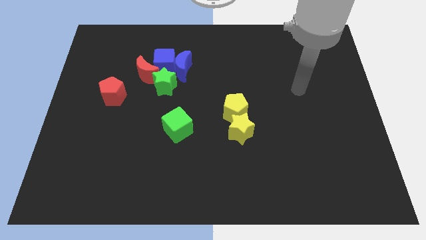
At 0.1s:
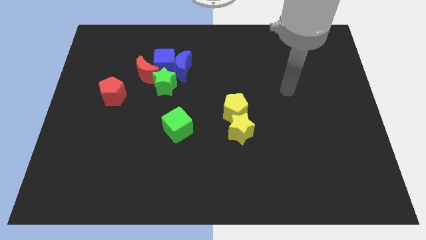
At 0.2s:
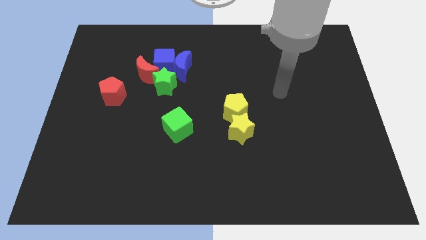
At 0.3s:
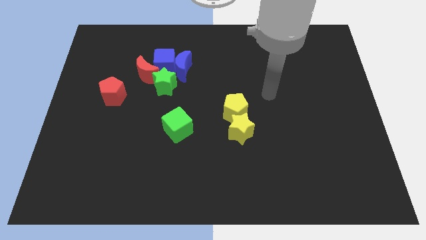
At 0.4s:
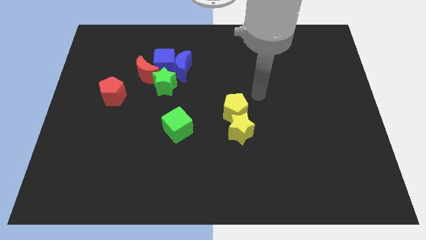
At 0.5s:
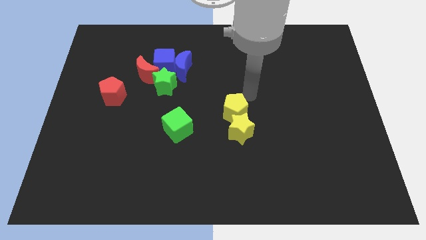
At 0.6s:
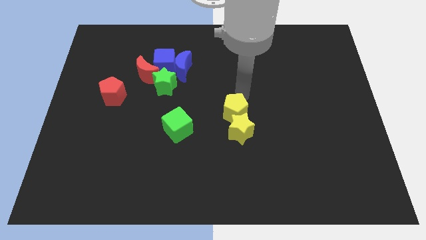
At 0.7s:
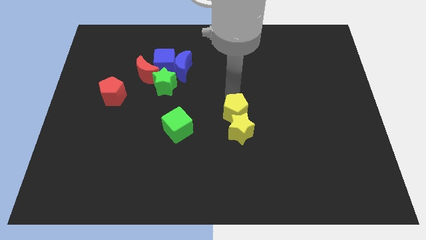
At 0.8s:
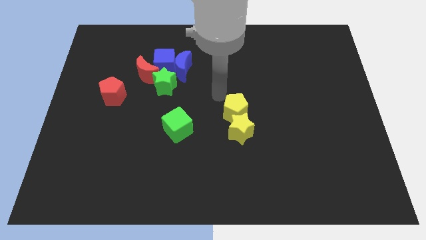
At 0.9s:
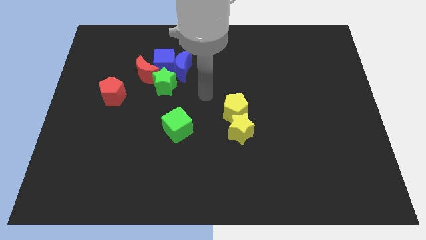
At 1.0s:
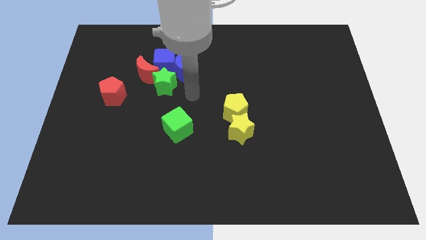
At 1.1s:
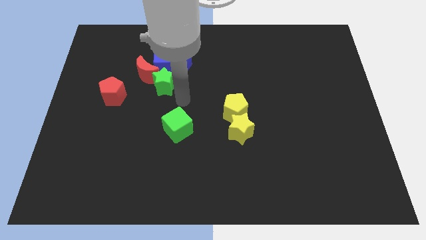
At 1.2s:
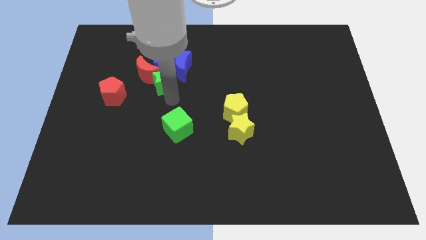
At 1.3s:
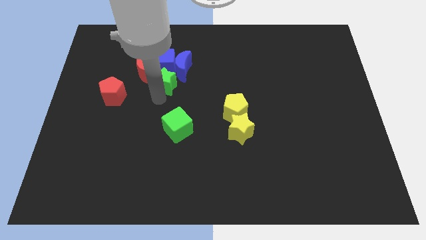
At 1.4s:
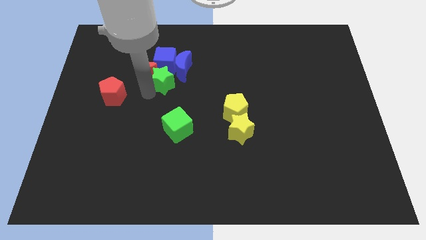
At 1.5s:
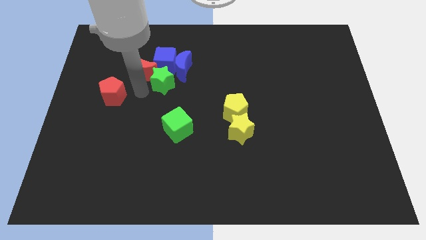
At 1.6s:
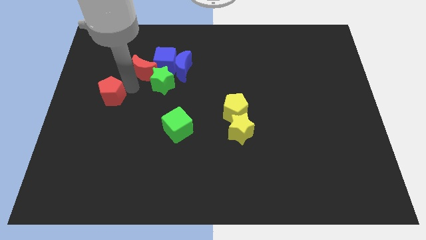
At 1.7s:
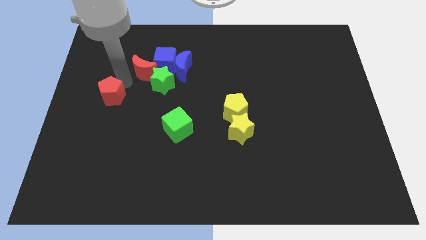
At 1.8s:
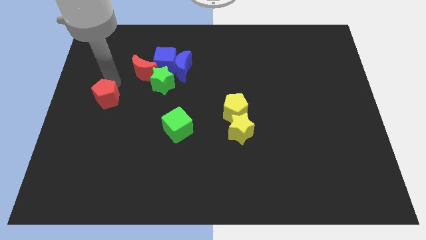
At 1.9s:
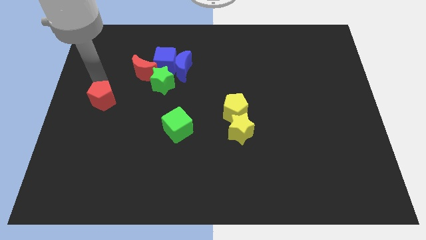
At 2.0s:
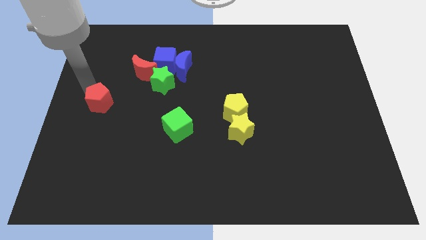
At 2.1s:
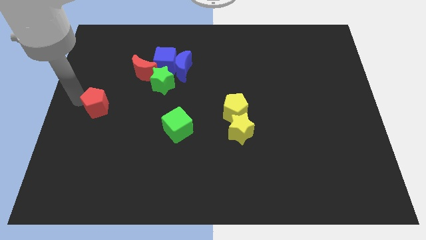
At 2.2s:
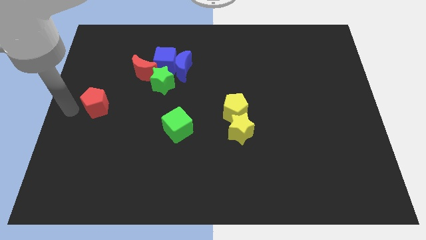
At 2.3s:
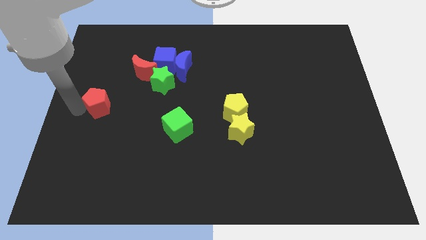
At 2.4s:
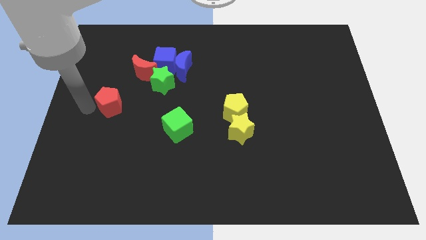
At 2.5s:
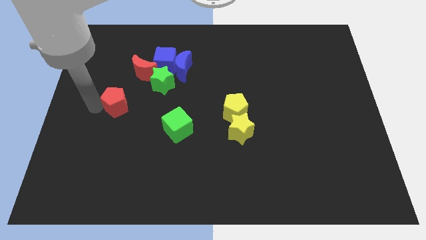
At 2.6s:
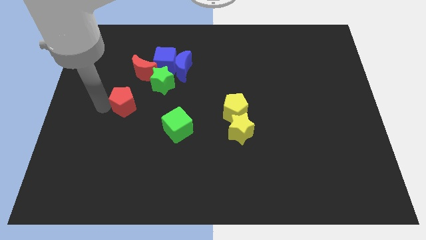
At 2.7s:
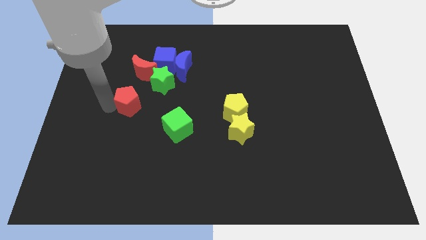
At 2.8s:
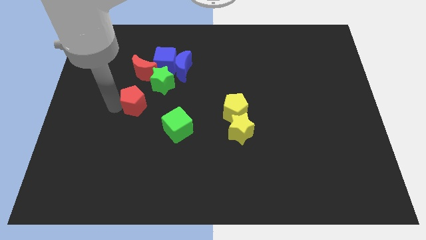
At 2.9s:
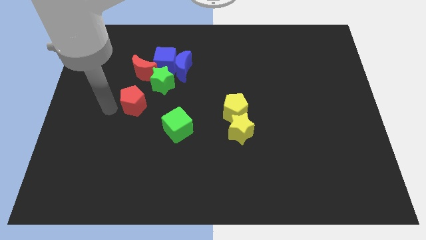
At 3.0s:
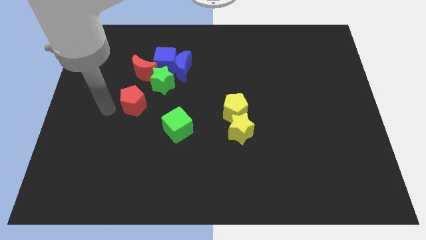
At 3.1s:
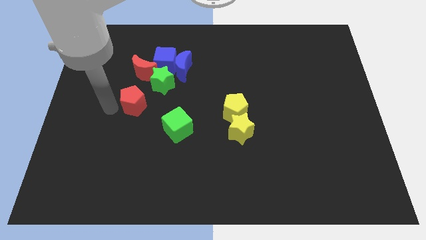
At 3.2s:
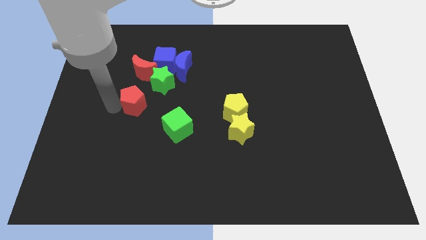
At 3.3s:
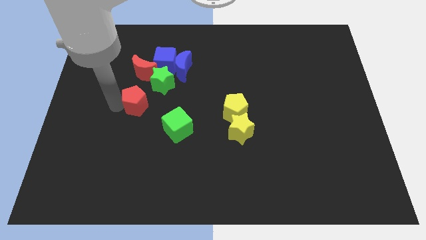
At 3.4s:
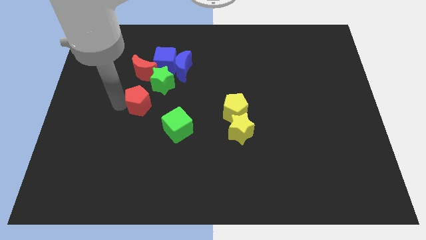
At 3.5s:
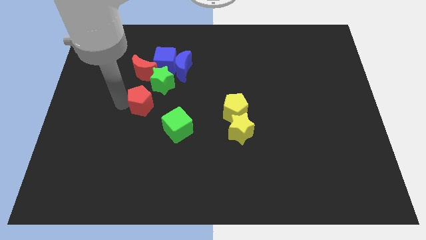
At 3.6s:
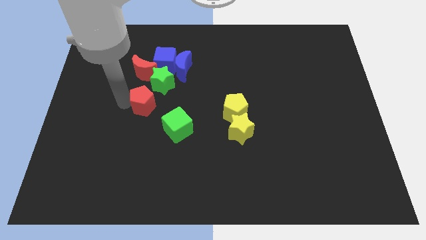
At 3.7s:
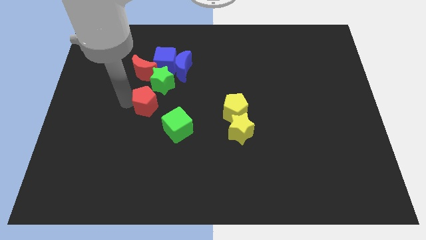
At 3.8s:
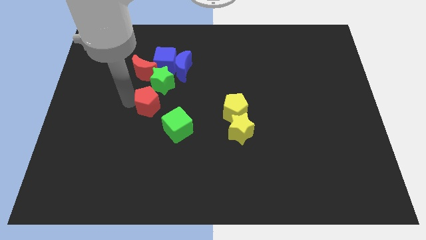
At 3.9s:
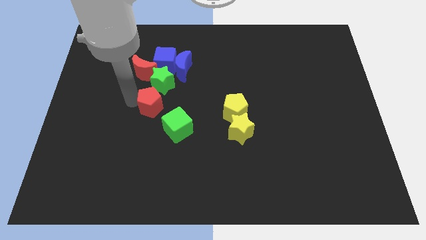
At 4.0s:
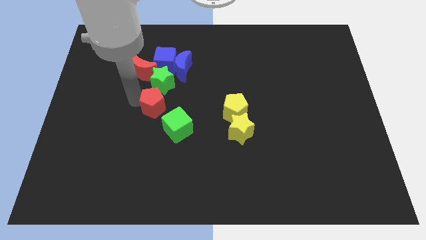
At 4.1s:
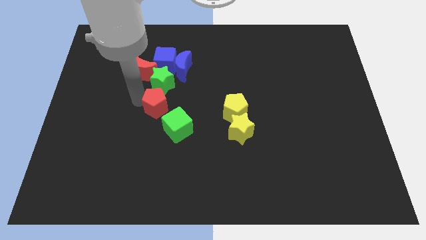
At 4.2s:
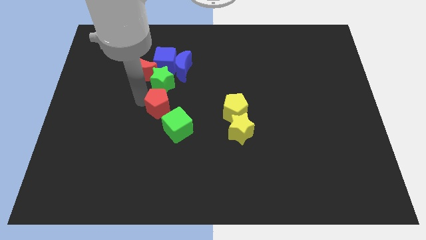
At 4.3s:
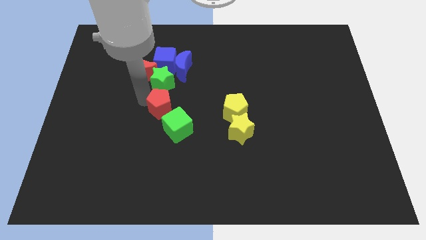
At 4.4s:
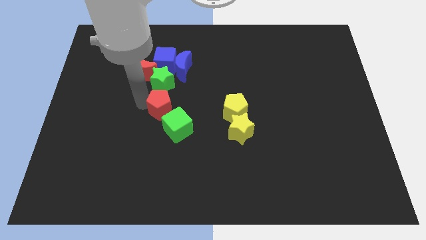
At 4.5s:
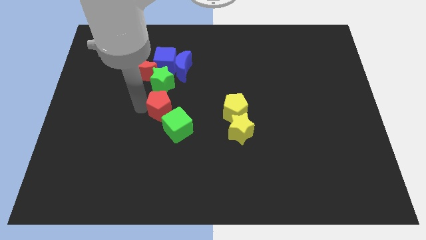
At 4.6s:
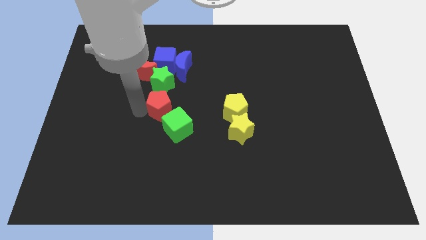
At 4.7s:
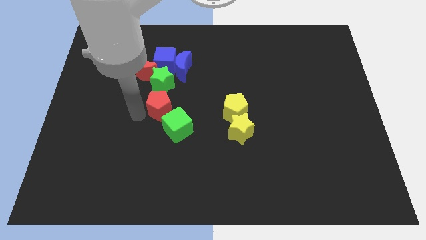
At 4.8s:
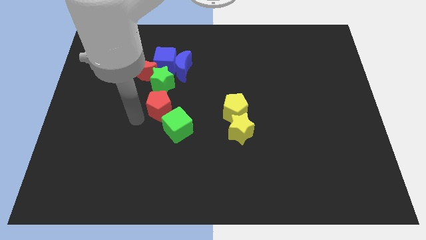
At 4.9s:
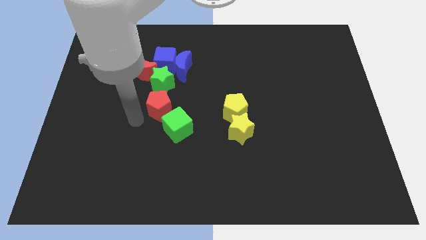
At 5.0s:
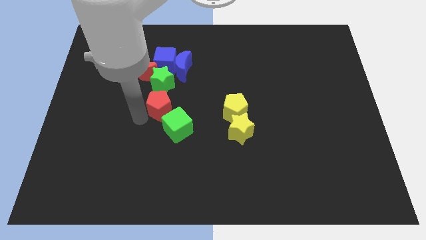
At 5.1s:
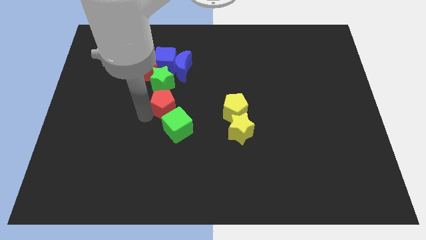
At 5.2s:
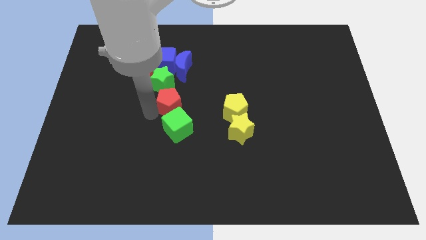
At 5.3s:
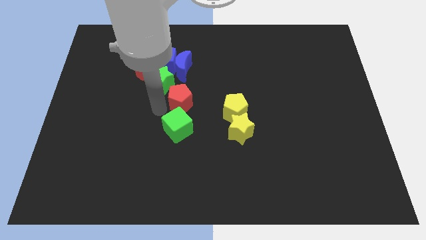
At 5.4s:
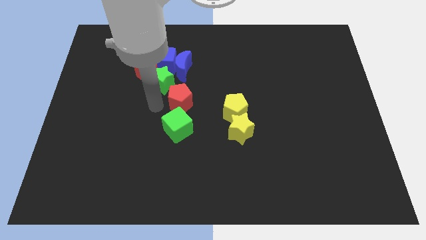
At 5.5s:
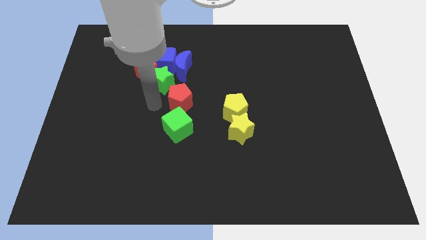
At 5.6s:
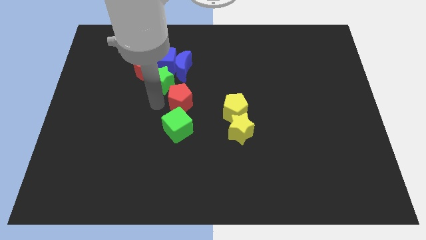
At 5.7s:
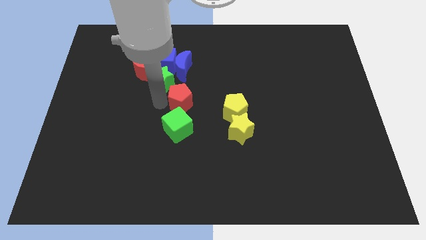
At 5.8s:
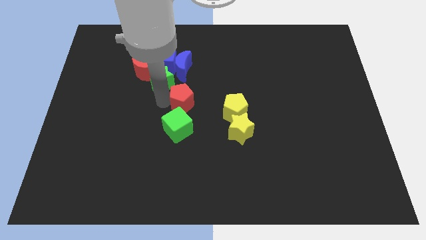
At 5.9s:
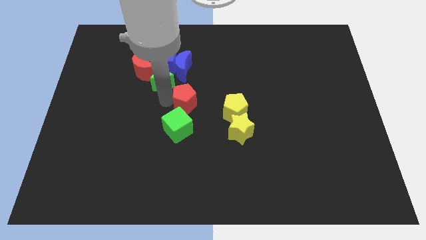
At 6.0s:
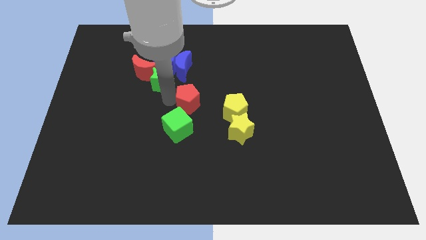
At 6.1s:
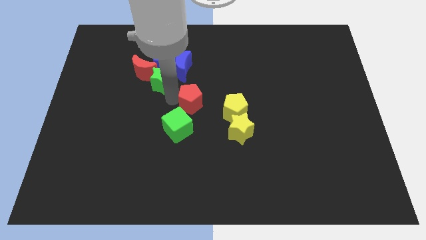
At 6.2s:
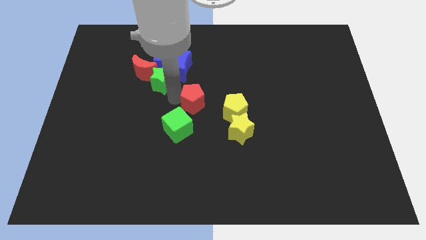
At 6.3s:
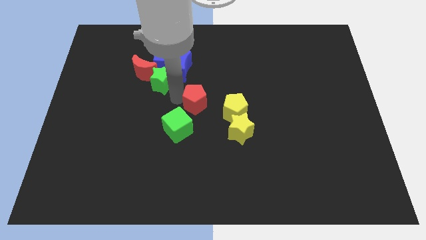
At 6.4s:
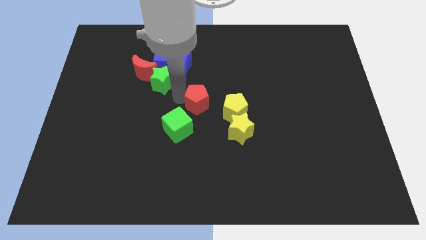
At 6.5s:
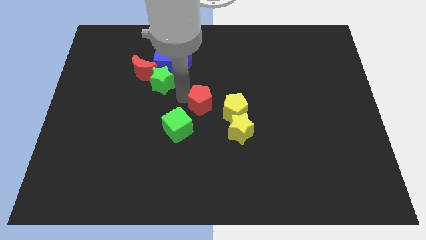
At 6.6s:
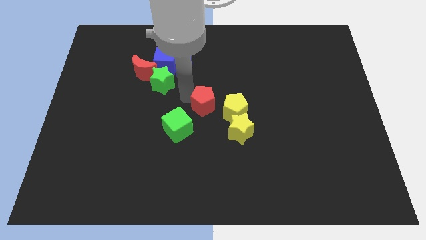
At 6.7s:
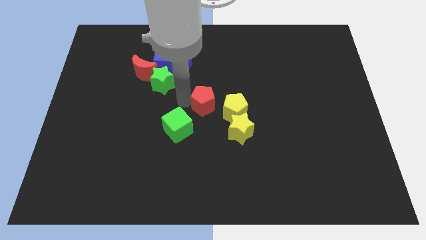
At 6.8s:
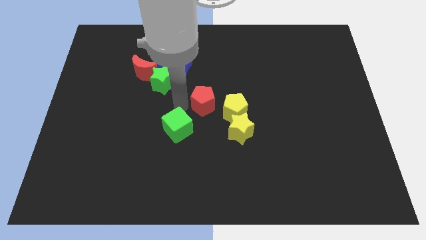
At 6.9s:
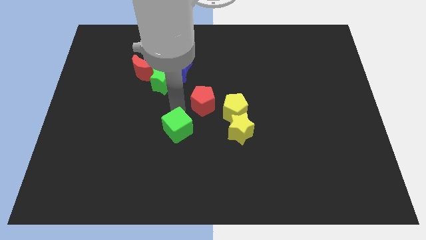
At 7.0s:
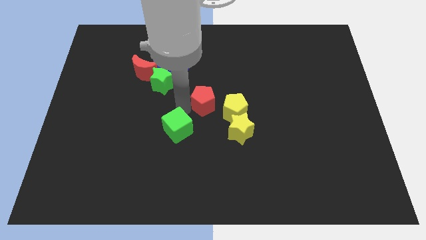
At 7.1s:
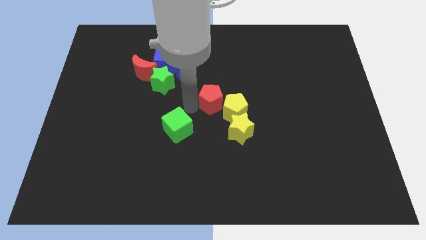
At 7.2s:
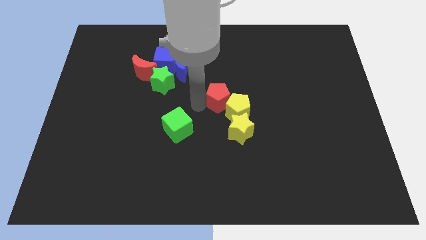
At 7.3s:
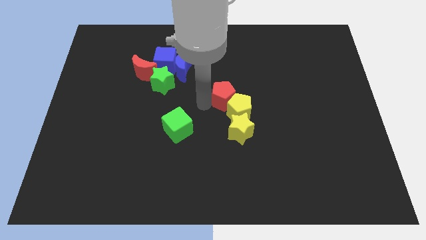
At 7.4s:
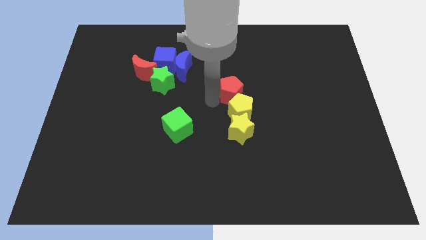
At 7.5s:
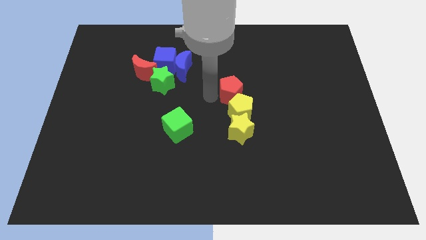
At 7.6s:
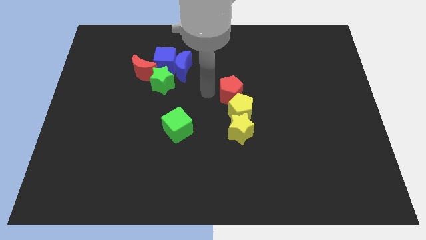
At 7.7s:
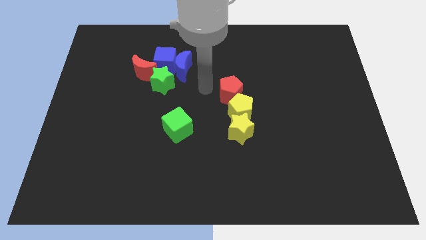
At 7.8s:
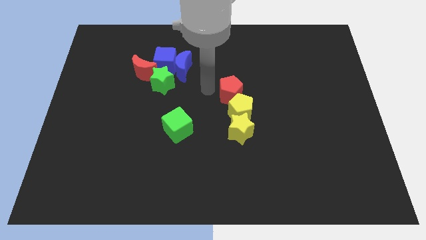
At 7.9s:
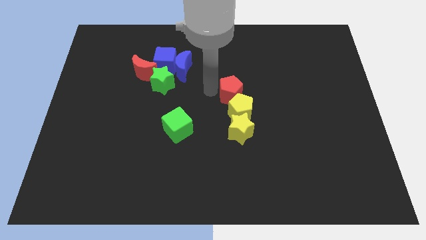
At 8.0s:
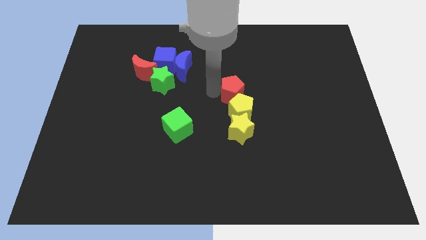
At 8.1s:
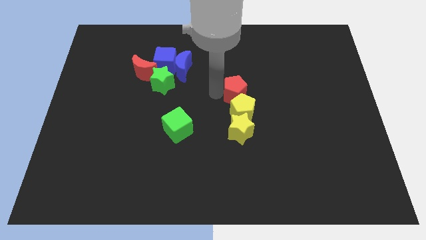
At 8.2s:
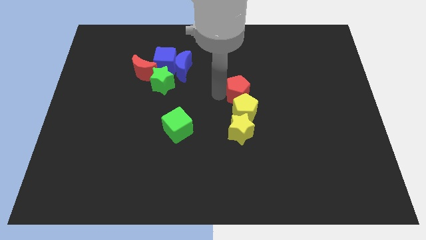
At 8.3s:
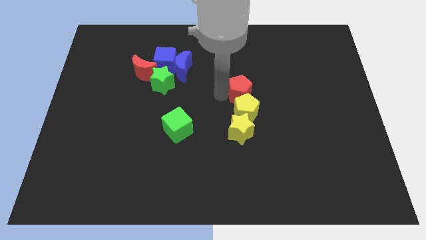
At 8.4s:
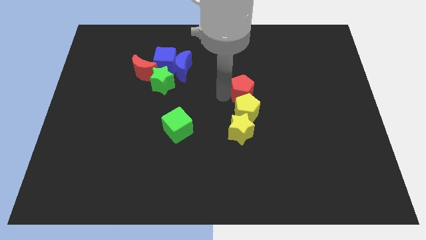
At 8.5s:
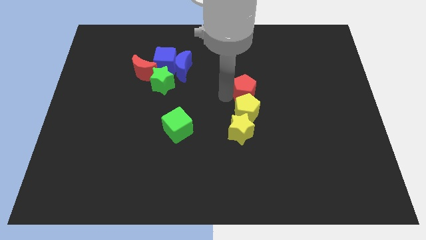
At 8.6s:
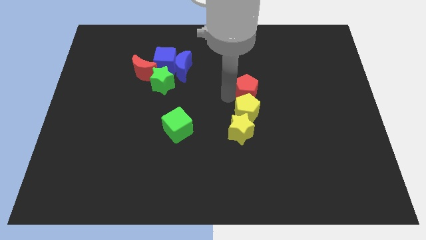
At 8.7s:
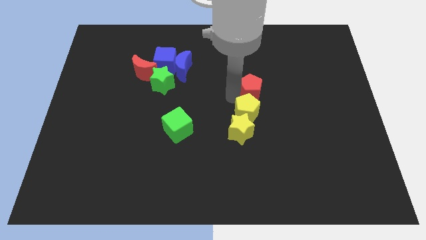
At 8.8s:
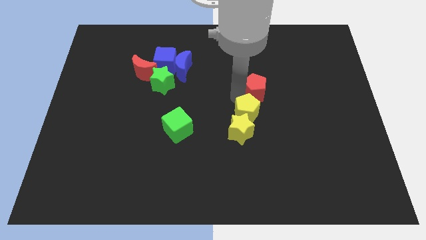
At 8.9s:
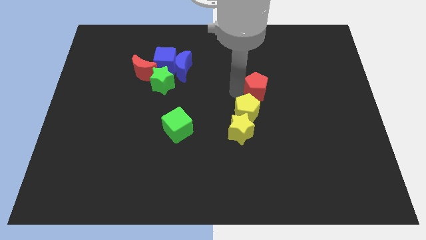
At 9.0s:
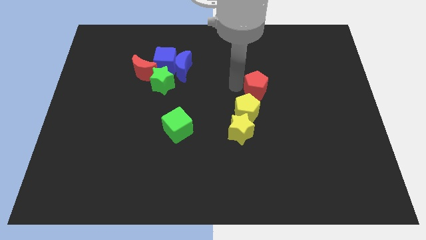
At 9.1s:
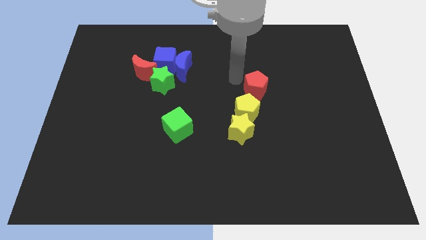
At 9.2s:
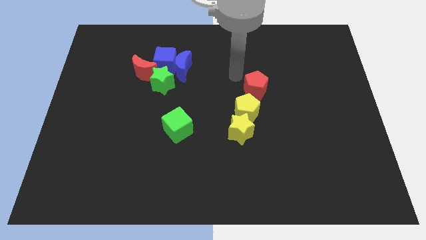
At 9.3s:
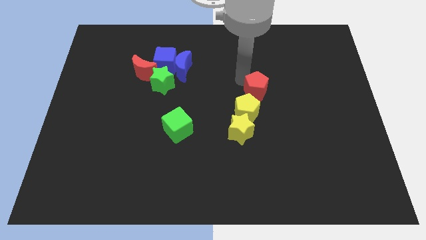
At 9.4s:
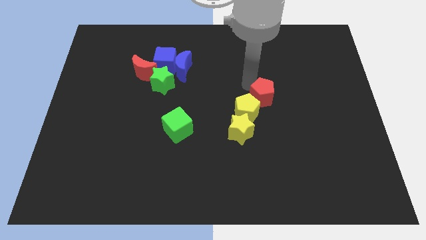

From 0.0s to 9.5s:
push the red pentagon to the right side of the yellow pentagon
